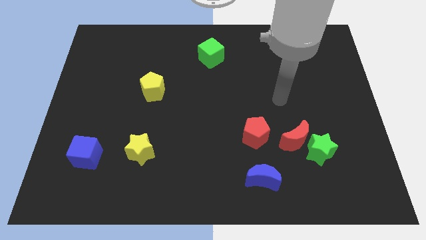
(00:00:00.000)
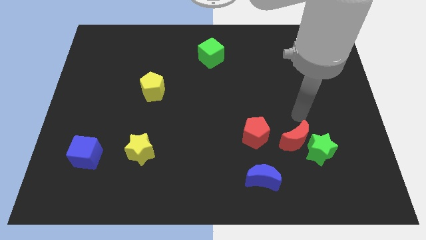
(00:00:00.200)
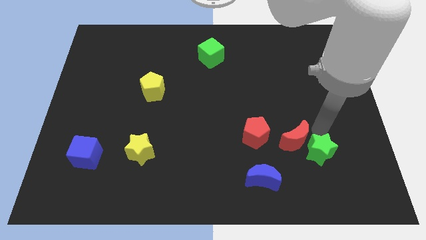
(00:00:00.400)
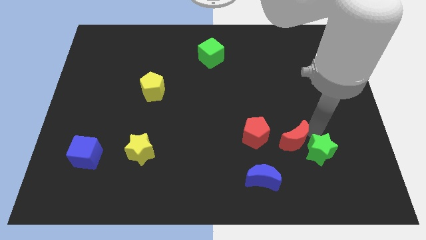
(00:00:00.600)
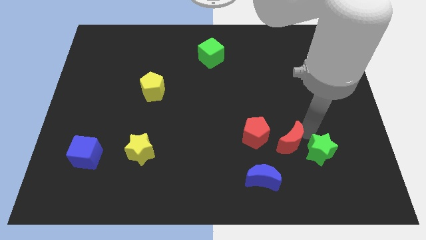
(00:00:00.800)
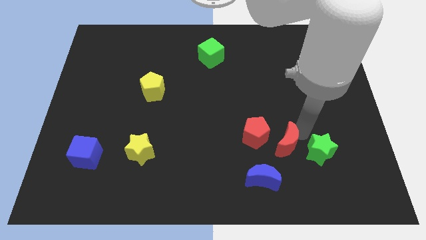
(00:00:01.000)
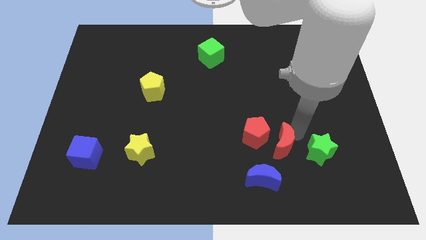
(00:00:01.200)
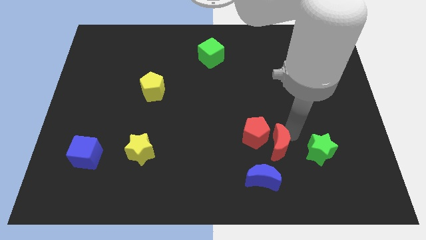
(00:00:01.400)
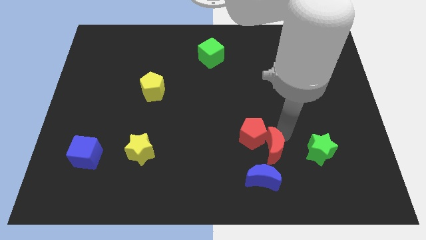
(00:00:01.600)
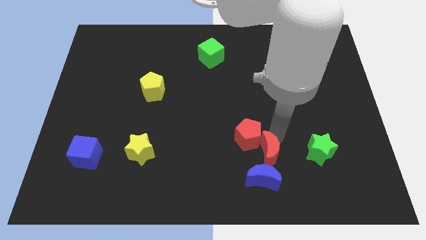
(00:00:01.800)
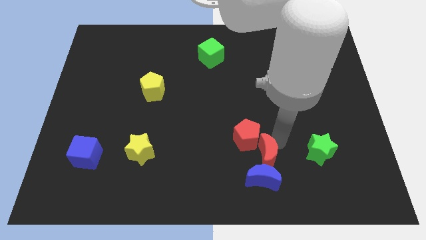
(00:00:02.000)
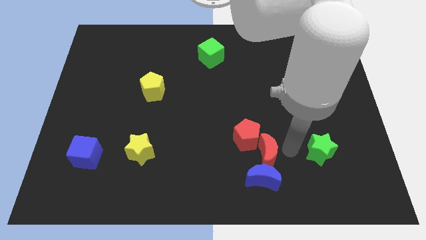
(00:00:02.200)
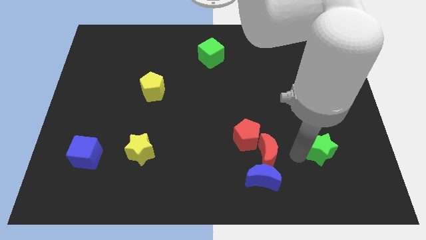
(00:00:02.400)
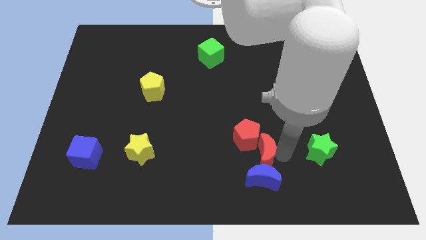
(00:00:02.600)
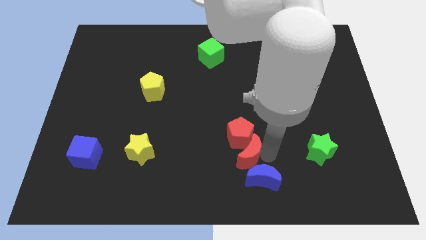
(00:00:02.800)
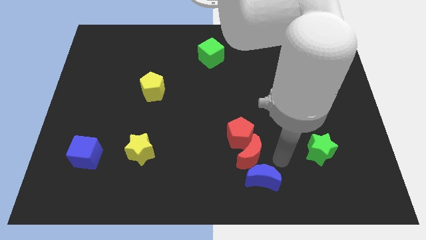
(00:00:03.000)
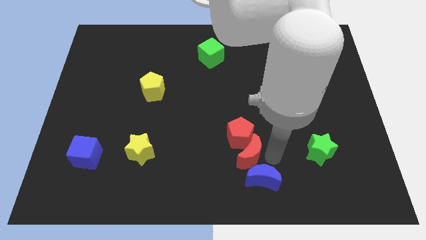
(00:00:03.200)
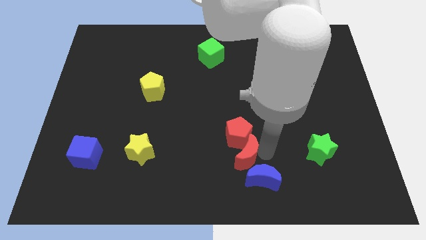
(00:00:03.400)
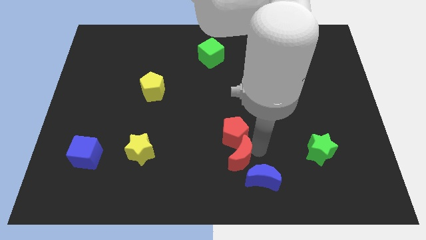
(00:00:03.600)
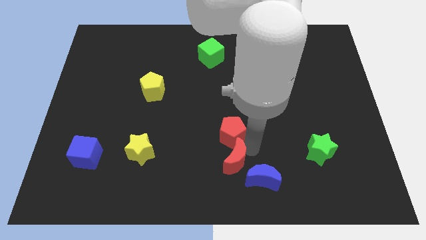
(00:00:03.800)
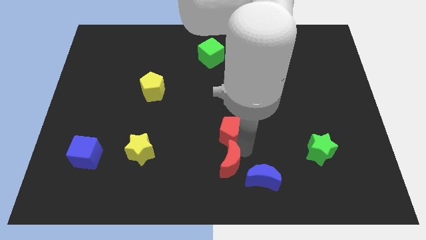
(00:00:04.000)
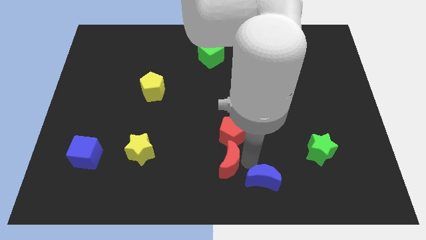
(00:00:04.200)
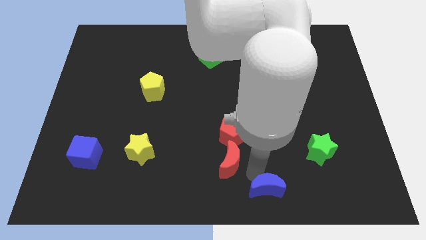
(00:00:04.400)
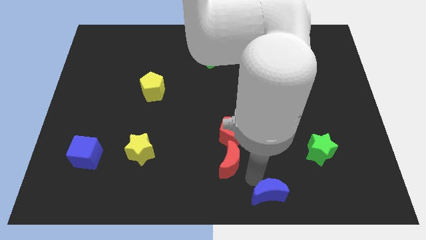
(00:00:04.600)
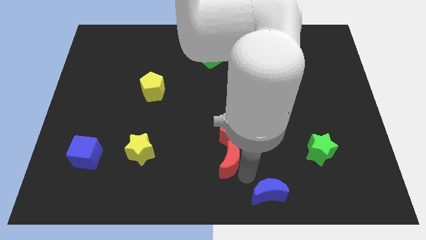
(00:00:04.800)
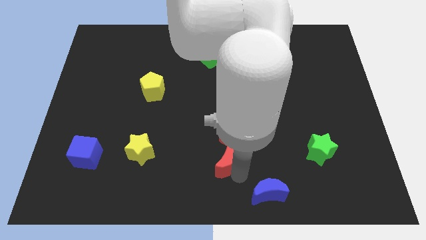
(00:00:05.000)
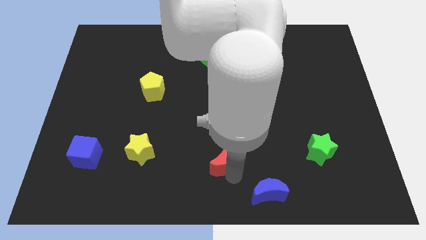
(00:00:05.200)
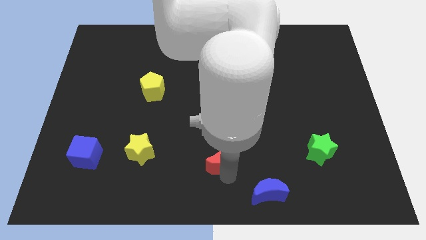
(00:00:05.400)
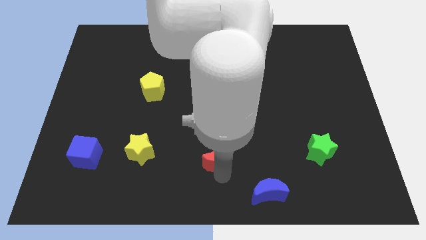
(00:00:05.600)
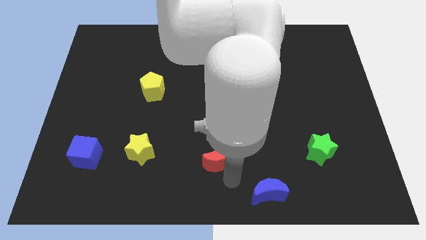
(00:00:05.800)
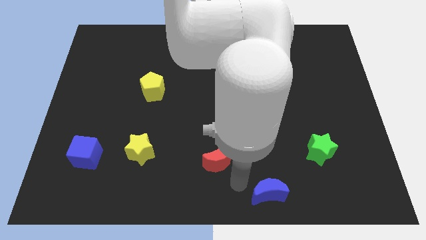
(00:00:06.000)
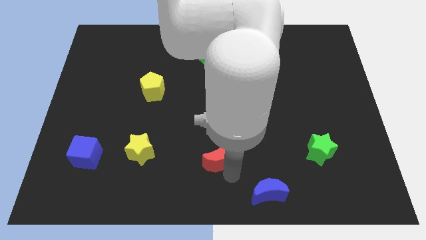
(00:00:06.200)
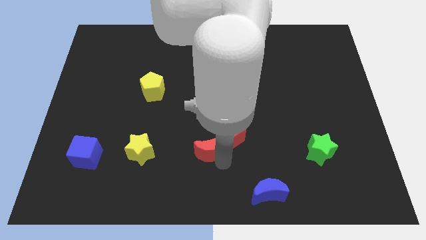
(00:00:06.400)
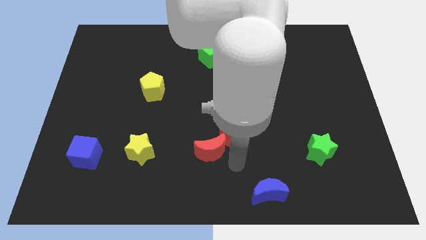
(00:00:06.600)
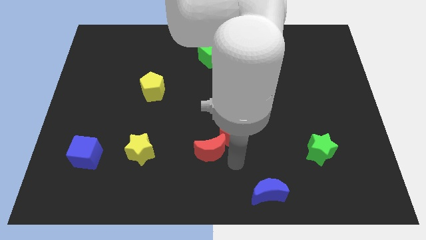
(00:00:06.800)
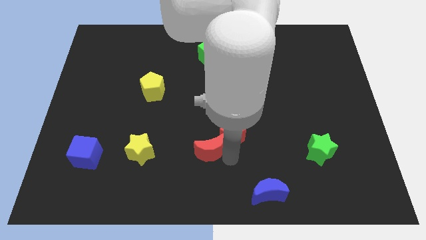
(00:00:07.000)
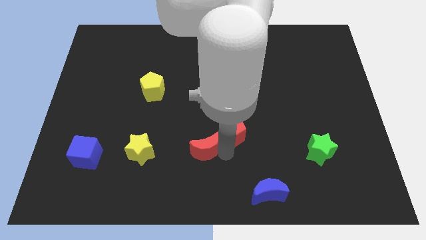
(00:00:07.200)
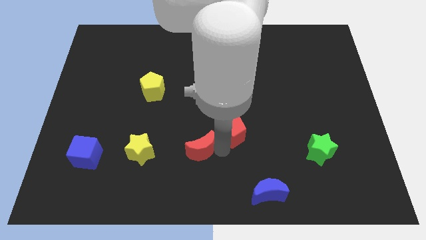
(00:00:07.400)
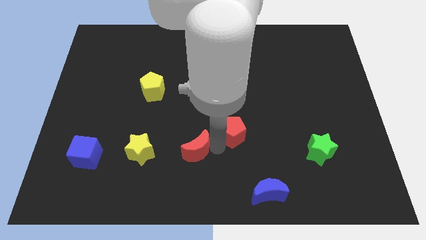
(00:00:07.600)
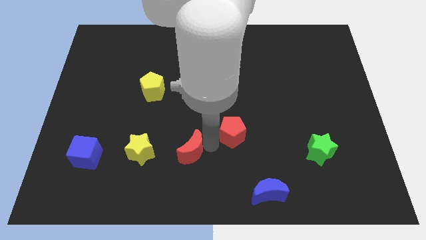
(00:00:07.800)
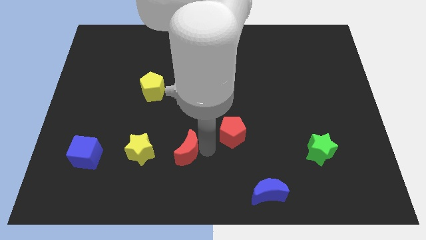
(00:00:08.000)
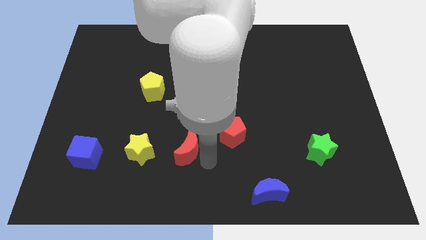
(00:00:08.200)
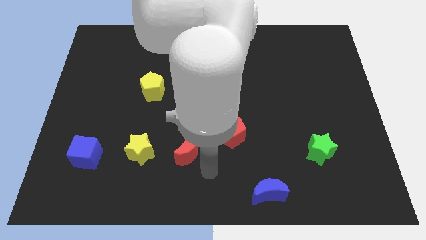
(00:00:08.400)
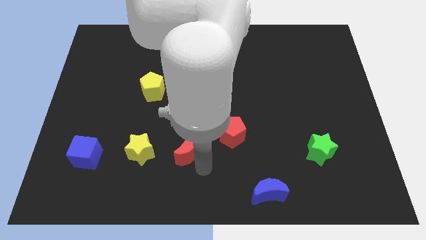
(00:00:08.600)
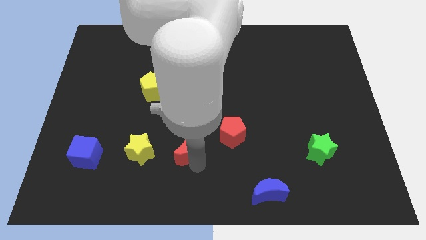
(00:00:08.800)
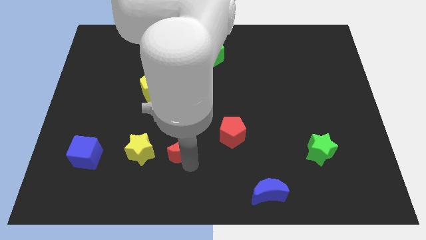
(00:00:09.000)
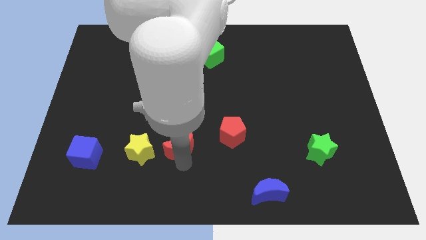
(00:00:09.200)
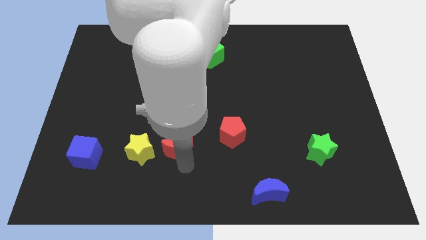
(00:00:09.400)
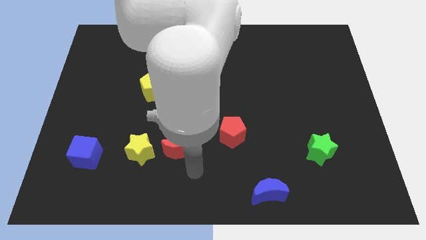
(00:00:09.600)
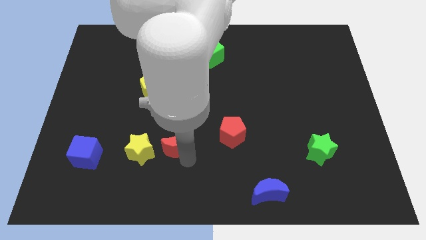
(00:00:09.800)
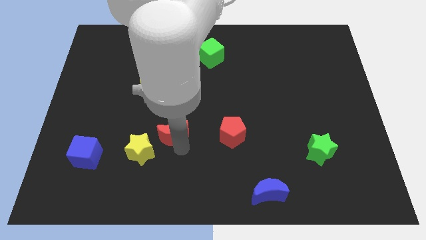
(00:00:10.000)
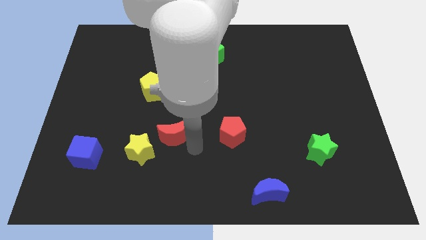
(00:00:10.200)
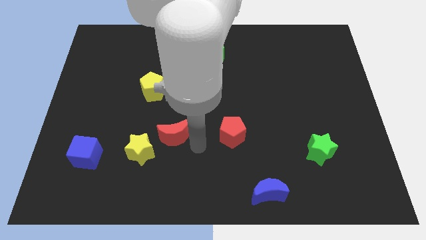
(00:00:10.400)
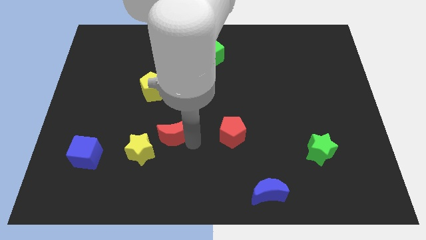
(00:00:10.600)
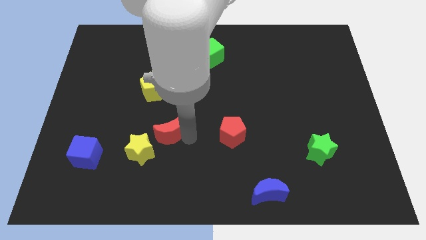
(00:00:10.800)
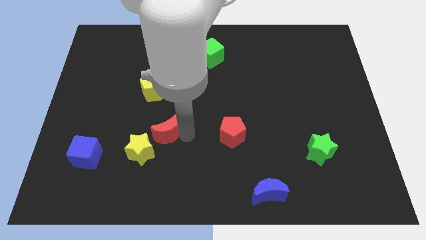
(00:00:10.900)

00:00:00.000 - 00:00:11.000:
slide the red moon to the bottom of the yellow pentagon

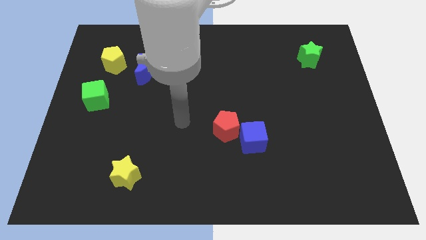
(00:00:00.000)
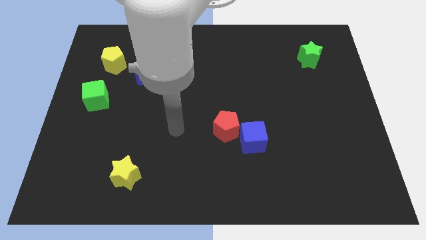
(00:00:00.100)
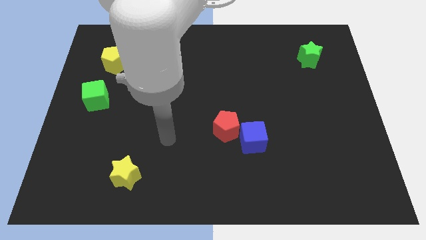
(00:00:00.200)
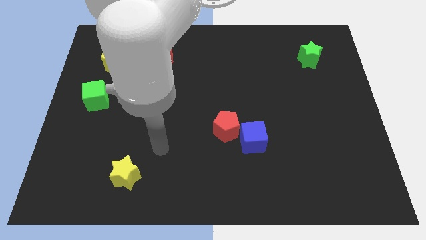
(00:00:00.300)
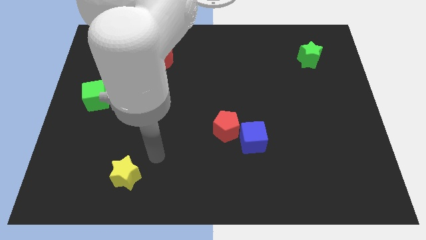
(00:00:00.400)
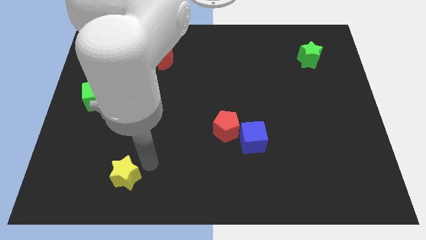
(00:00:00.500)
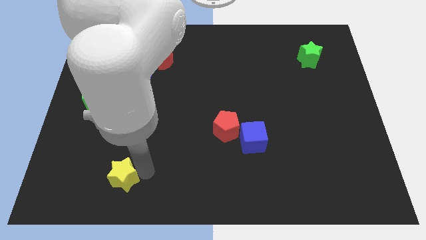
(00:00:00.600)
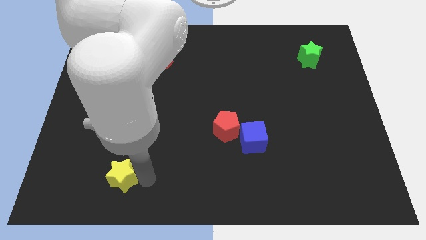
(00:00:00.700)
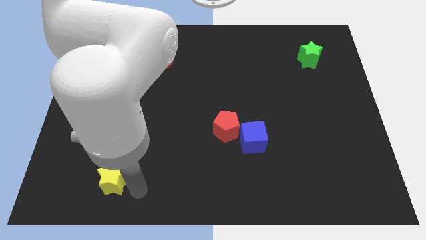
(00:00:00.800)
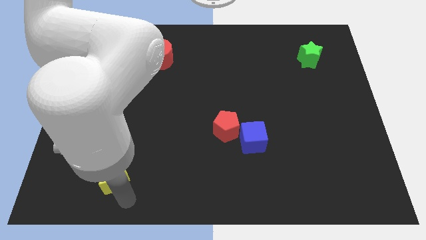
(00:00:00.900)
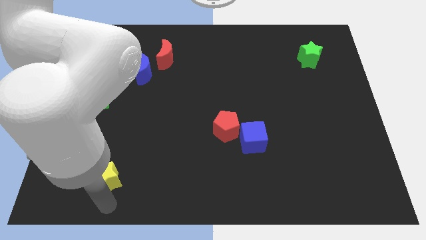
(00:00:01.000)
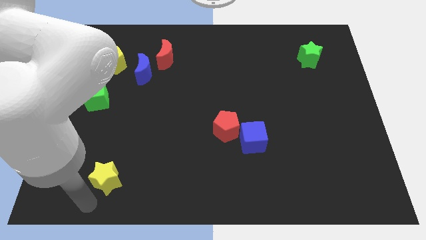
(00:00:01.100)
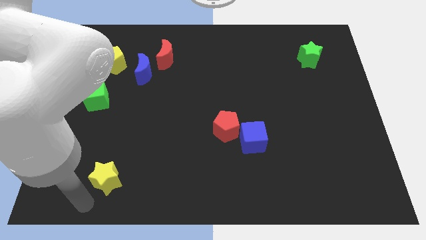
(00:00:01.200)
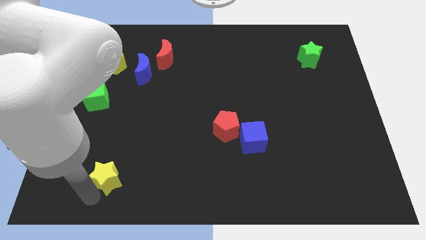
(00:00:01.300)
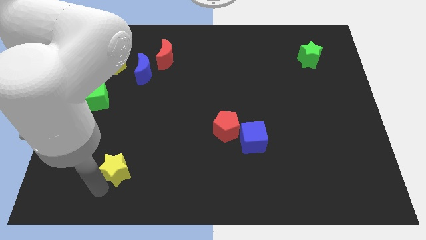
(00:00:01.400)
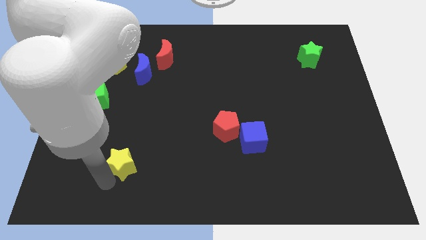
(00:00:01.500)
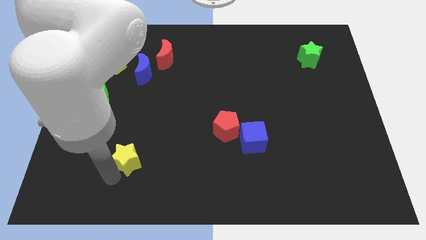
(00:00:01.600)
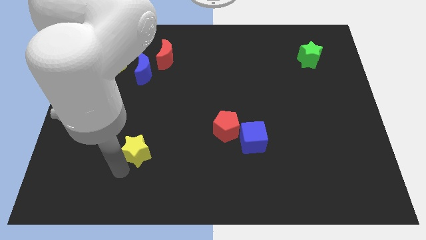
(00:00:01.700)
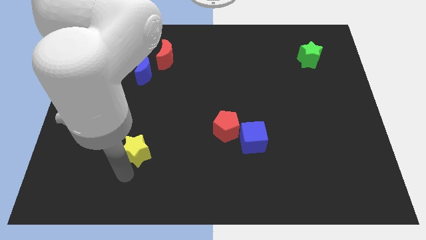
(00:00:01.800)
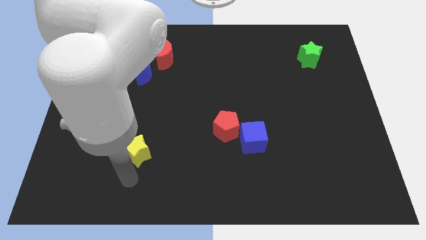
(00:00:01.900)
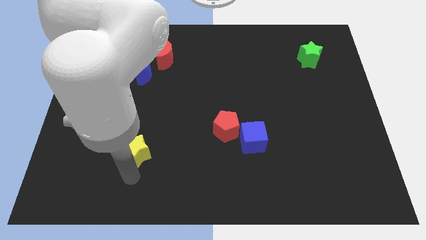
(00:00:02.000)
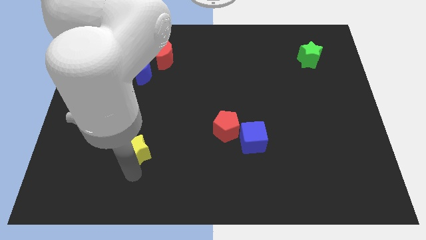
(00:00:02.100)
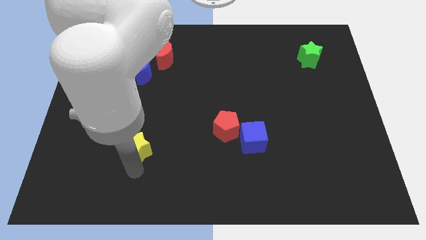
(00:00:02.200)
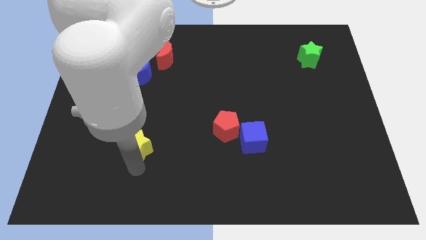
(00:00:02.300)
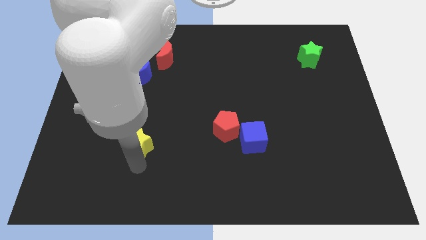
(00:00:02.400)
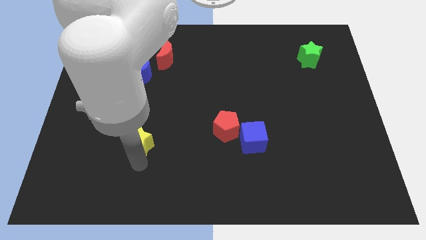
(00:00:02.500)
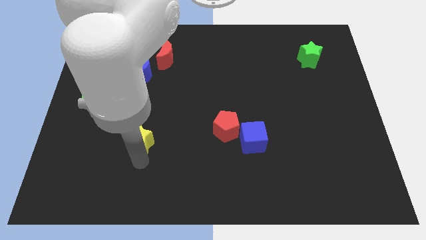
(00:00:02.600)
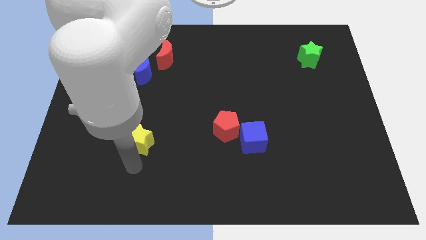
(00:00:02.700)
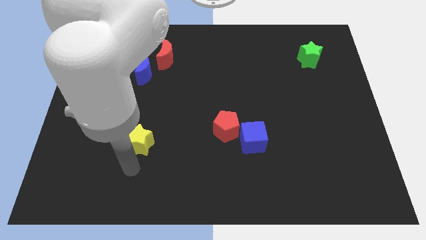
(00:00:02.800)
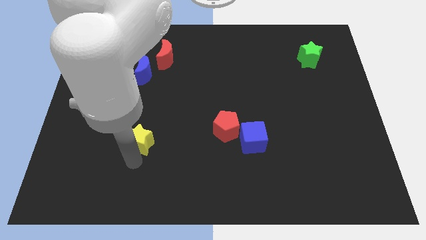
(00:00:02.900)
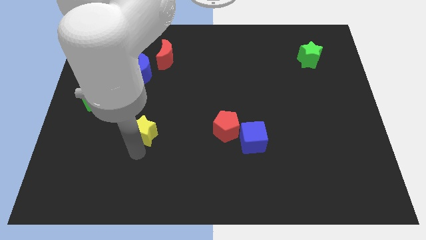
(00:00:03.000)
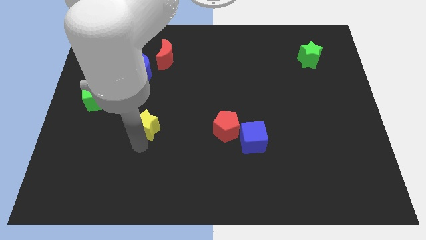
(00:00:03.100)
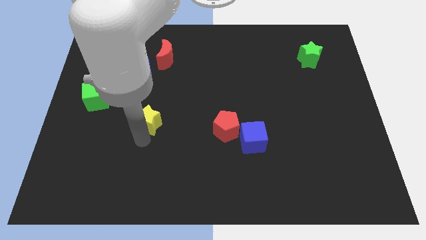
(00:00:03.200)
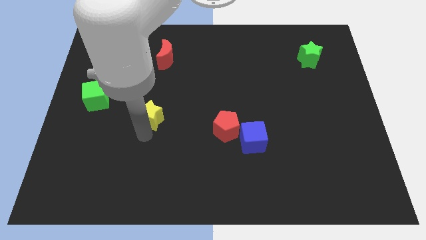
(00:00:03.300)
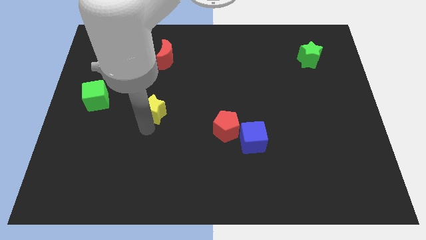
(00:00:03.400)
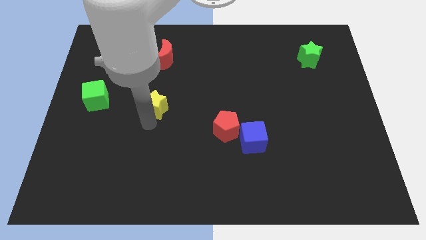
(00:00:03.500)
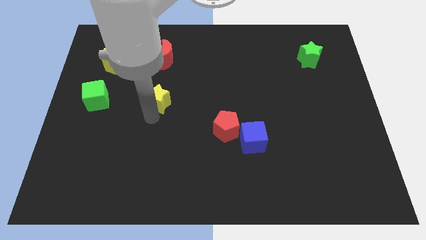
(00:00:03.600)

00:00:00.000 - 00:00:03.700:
slide the yellow star below the red moon
